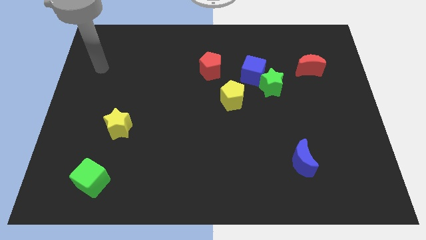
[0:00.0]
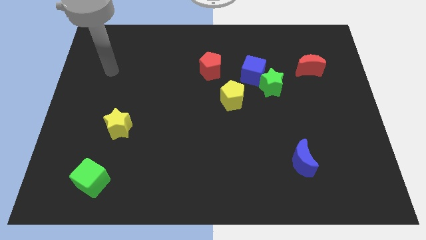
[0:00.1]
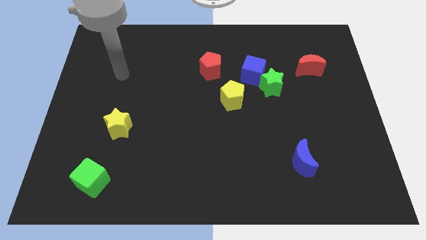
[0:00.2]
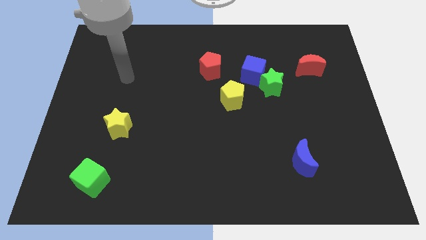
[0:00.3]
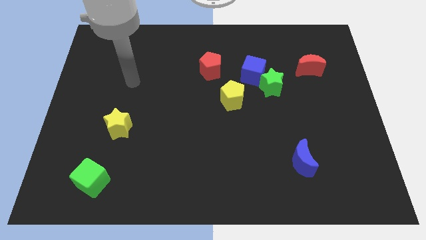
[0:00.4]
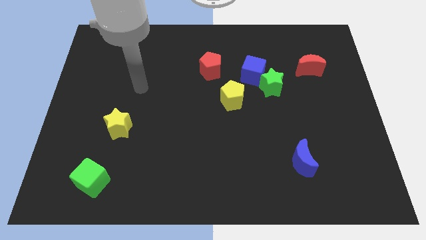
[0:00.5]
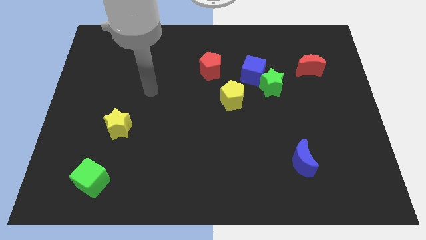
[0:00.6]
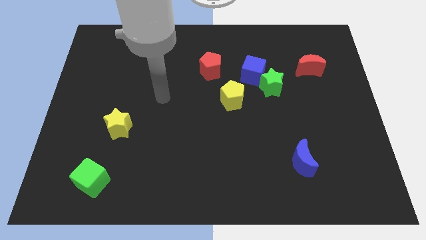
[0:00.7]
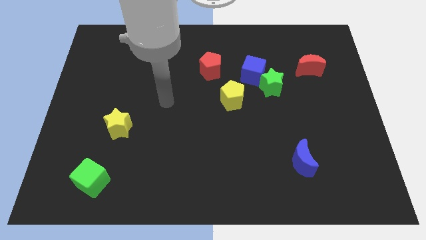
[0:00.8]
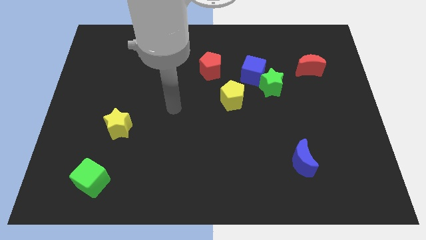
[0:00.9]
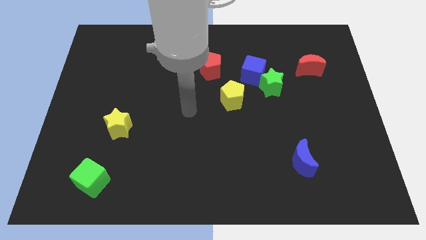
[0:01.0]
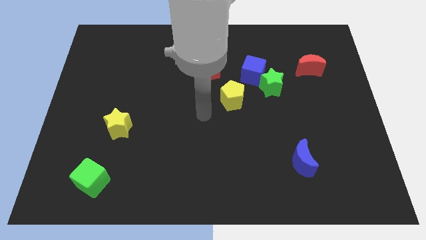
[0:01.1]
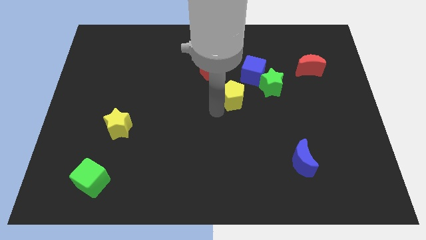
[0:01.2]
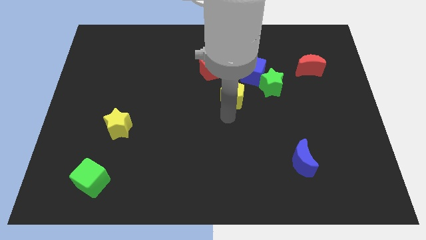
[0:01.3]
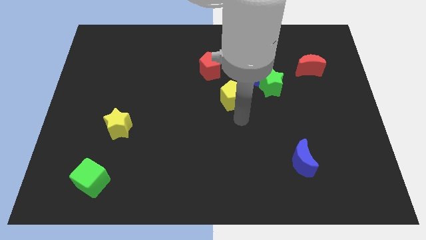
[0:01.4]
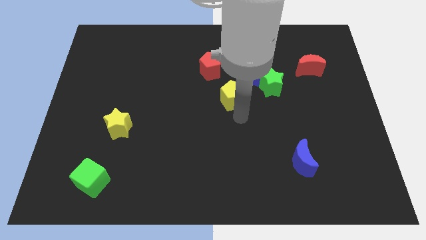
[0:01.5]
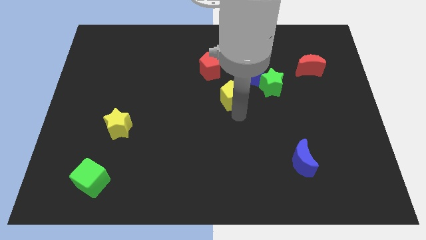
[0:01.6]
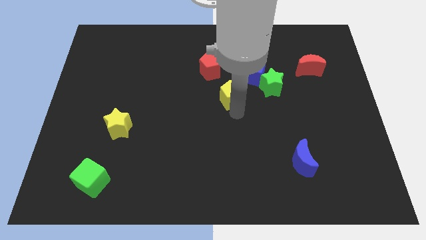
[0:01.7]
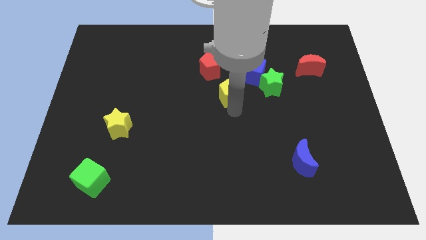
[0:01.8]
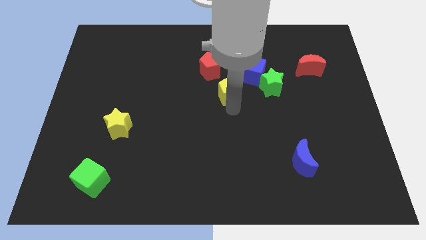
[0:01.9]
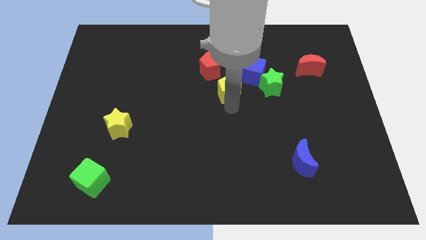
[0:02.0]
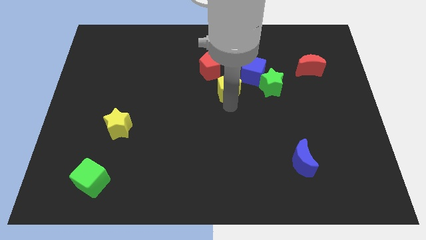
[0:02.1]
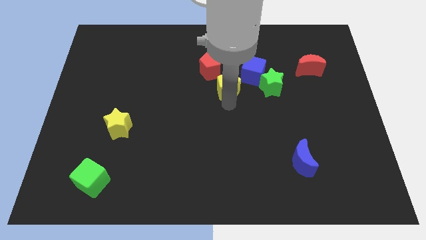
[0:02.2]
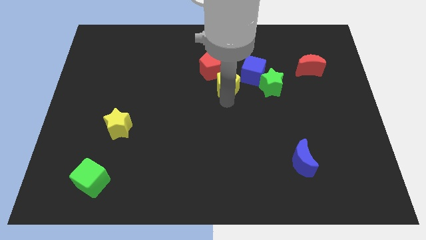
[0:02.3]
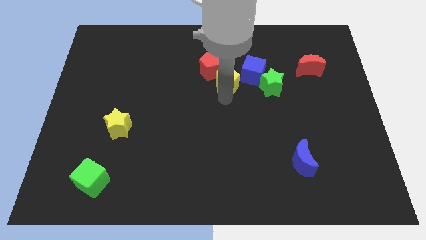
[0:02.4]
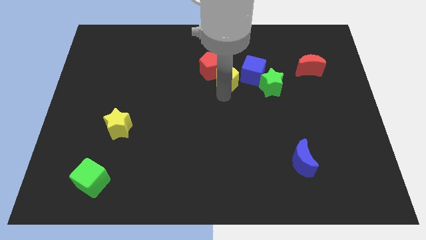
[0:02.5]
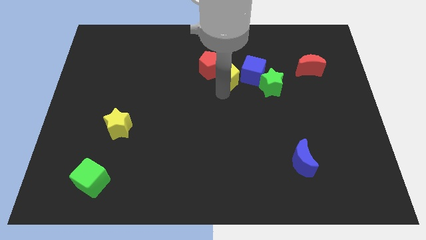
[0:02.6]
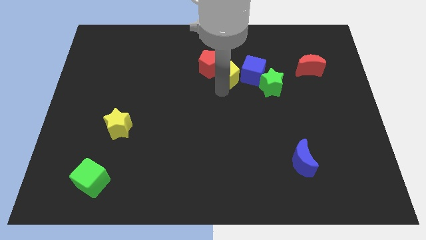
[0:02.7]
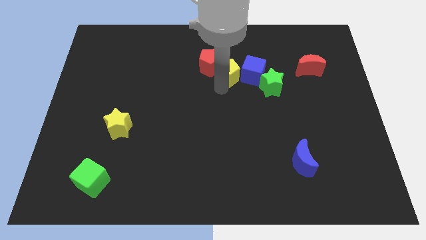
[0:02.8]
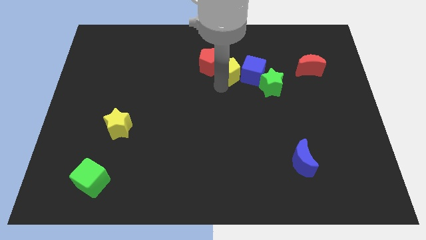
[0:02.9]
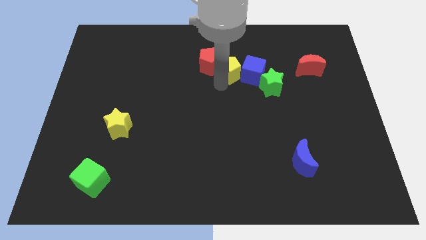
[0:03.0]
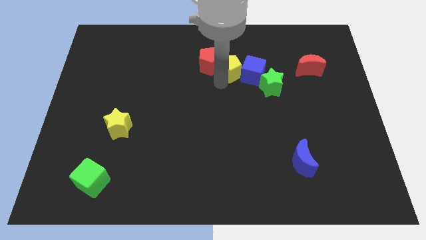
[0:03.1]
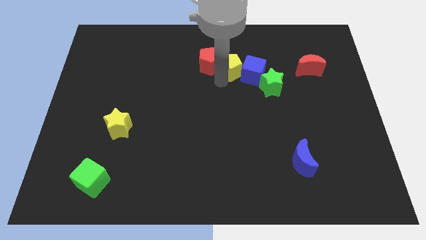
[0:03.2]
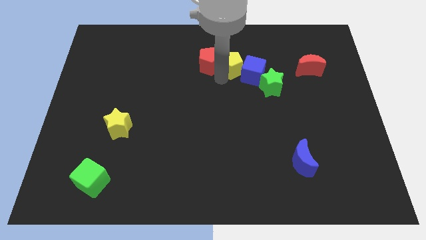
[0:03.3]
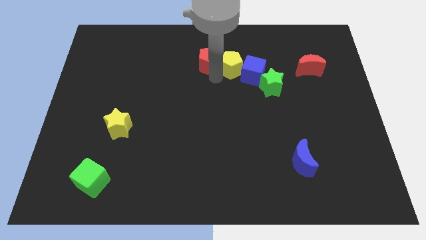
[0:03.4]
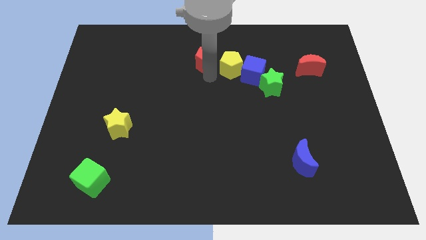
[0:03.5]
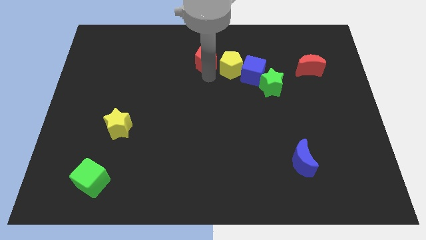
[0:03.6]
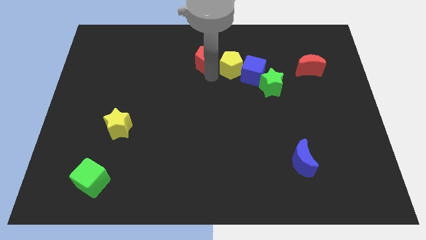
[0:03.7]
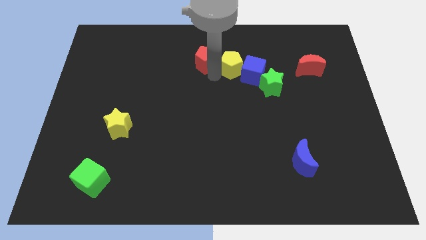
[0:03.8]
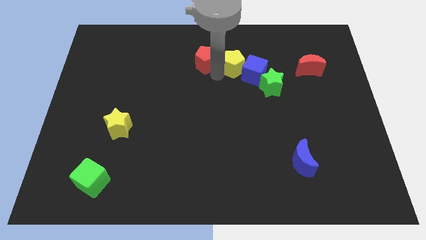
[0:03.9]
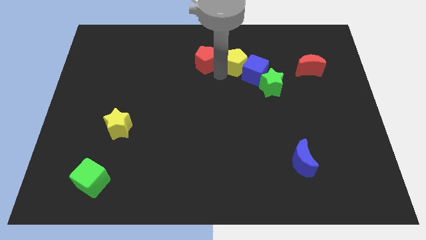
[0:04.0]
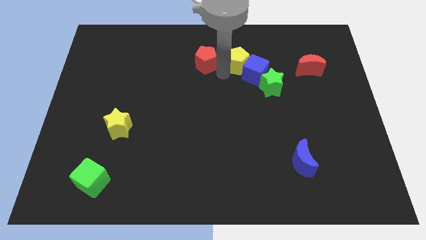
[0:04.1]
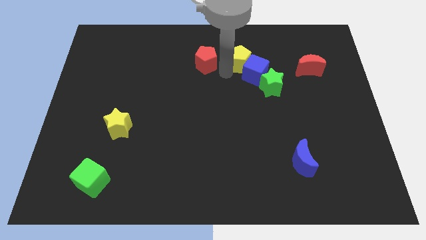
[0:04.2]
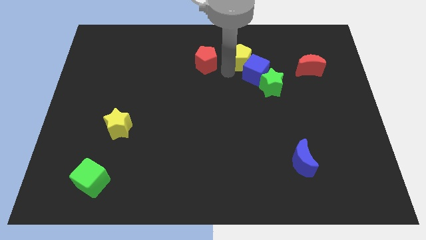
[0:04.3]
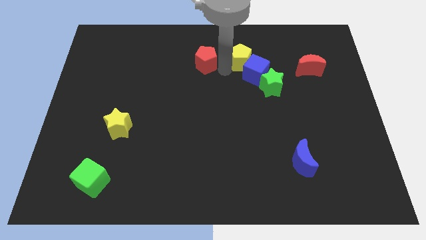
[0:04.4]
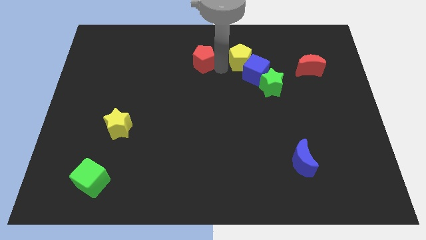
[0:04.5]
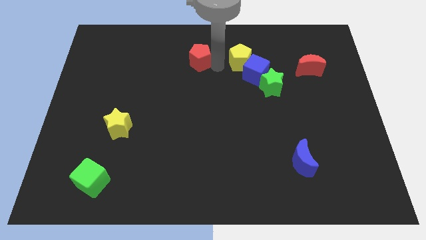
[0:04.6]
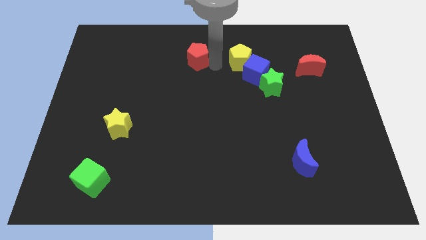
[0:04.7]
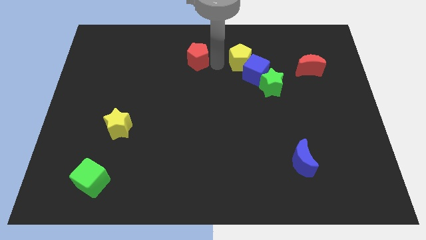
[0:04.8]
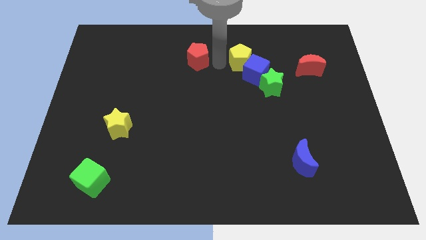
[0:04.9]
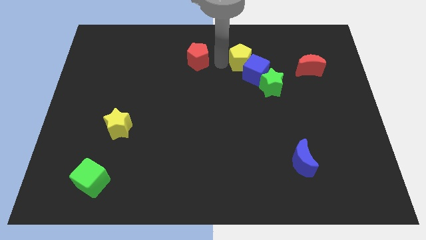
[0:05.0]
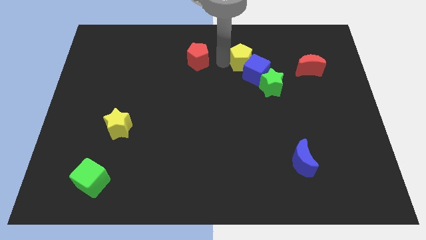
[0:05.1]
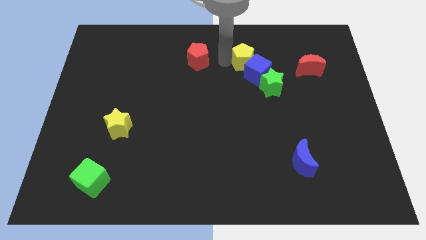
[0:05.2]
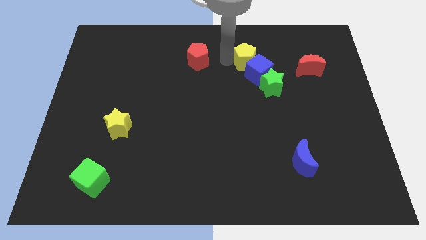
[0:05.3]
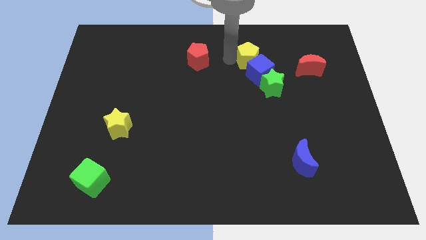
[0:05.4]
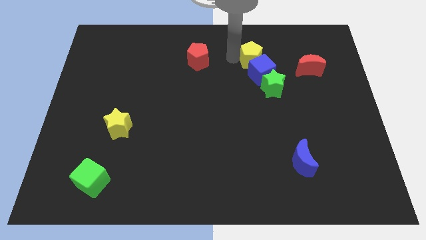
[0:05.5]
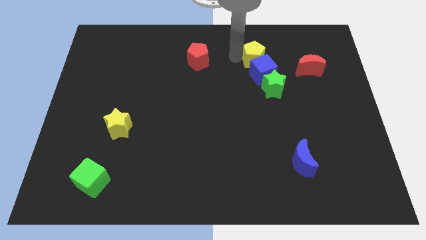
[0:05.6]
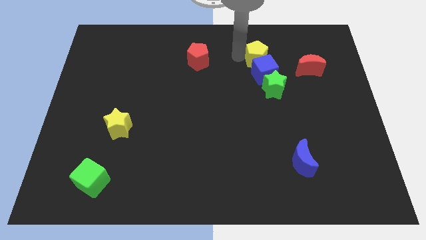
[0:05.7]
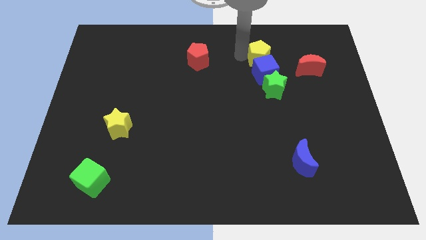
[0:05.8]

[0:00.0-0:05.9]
put the yellow pentagon to the top right side of the blue cube

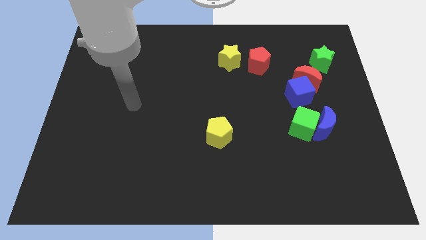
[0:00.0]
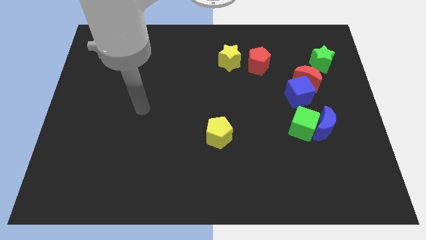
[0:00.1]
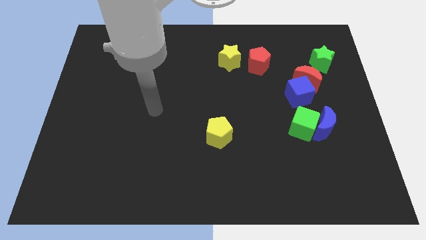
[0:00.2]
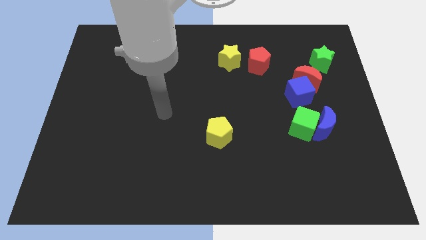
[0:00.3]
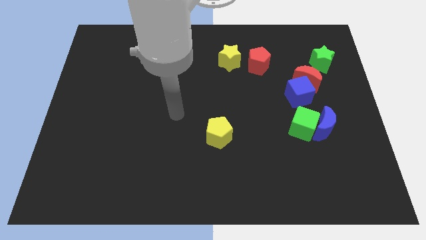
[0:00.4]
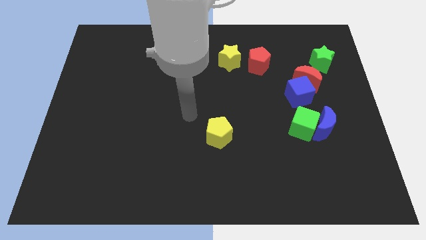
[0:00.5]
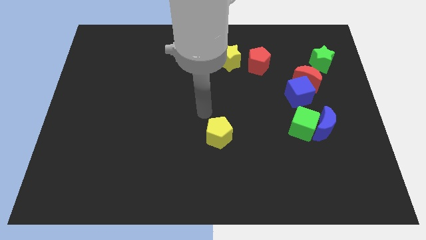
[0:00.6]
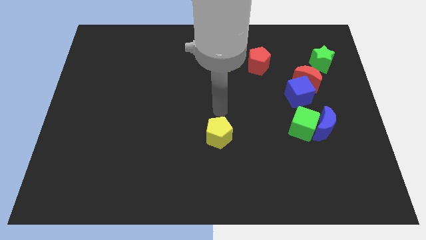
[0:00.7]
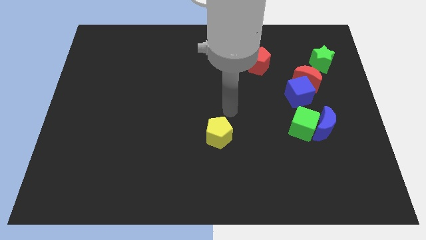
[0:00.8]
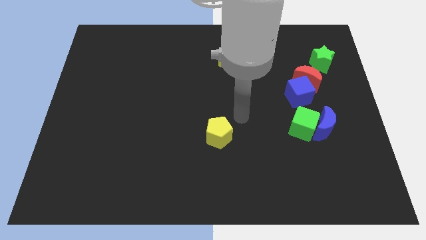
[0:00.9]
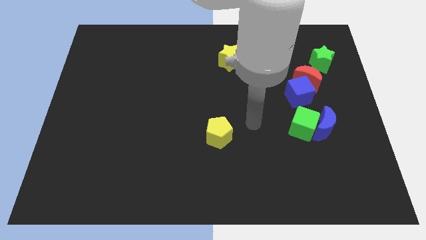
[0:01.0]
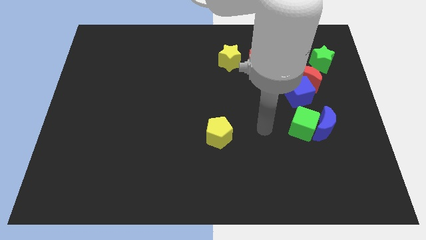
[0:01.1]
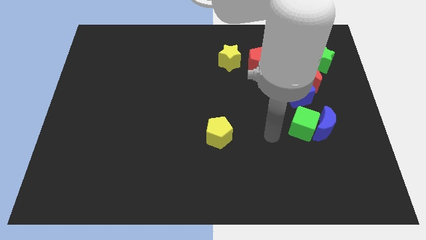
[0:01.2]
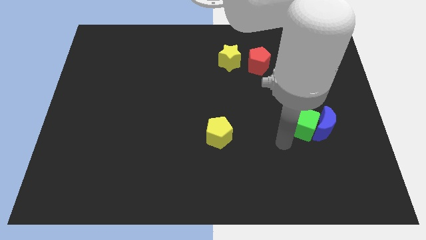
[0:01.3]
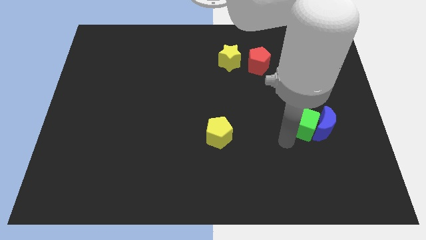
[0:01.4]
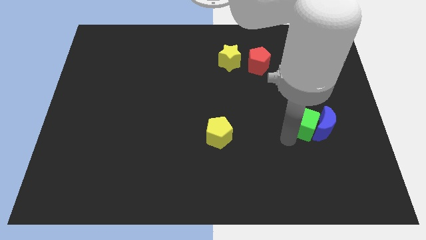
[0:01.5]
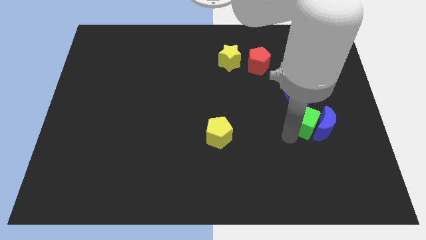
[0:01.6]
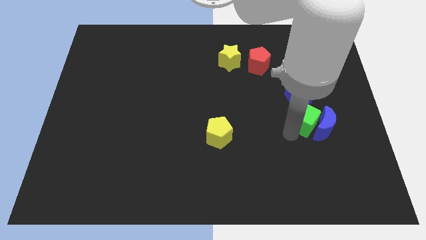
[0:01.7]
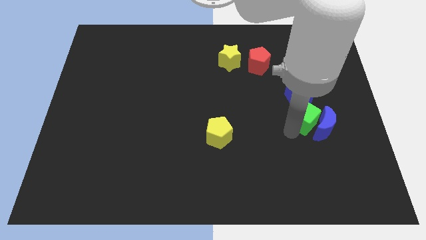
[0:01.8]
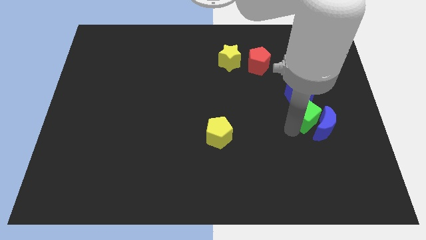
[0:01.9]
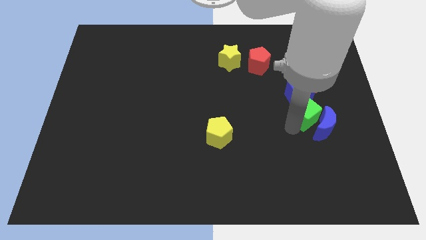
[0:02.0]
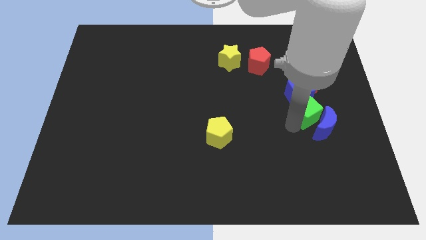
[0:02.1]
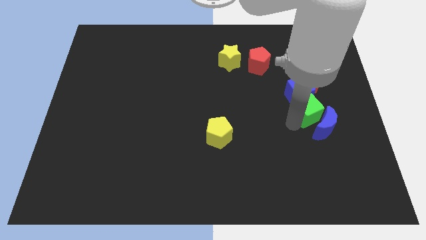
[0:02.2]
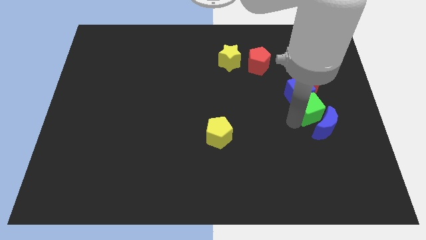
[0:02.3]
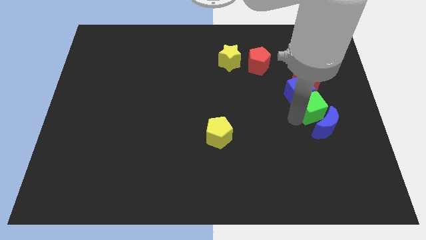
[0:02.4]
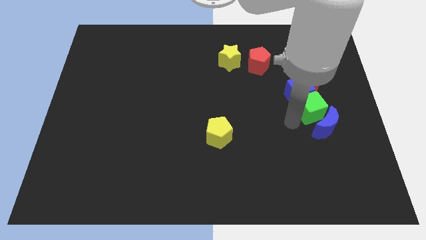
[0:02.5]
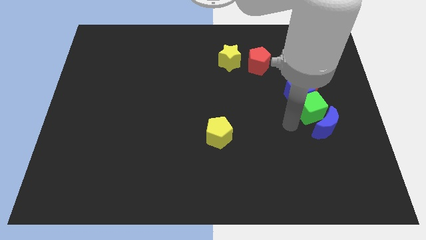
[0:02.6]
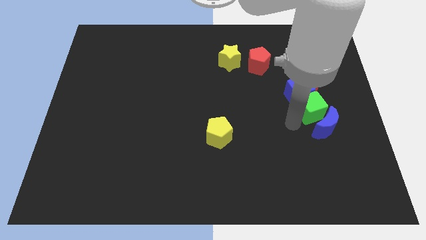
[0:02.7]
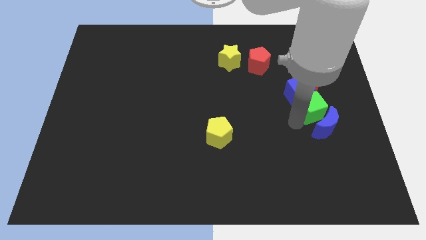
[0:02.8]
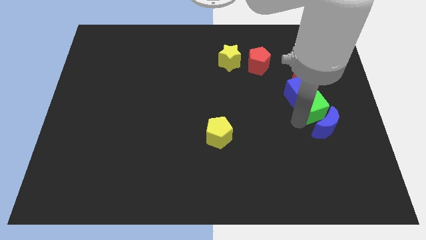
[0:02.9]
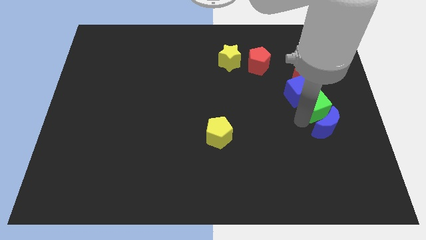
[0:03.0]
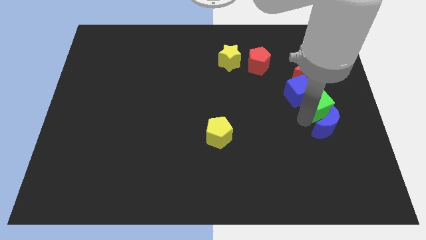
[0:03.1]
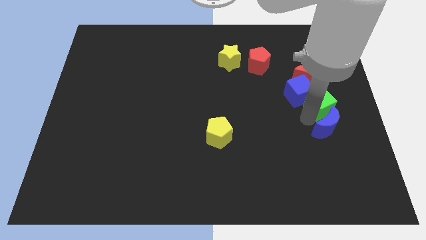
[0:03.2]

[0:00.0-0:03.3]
push the green cube to the bottom right side of the red moon
